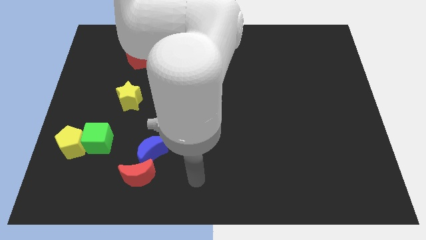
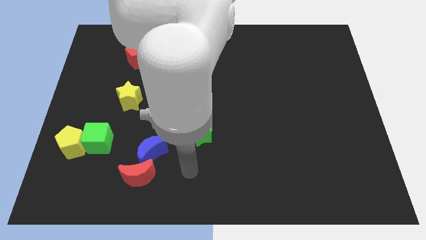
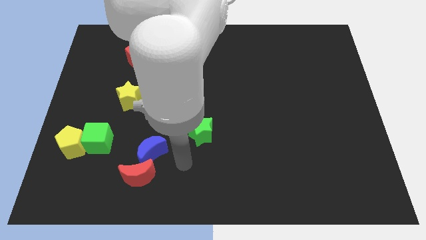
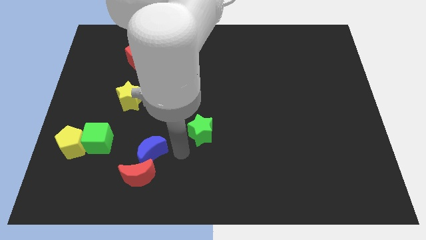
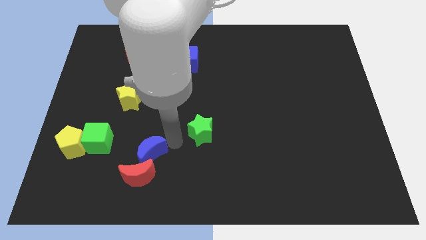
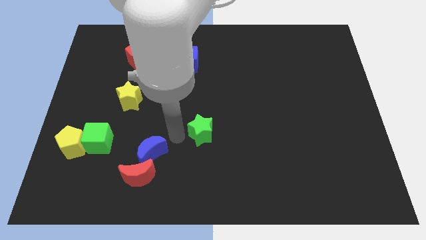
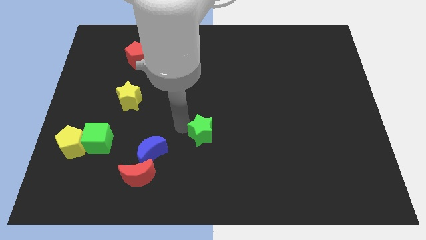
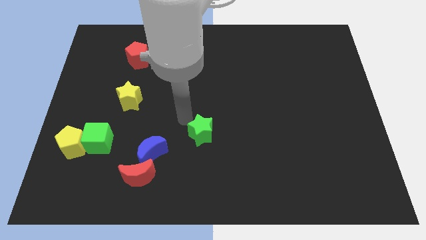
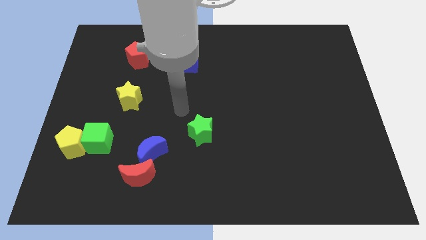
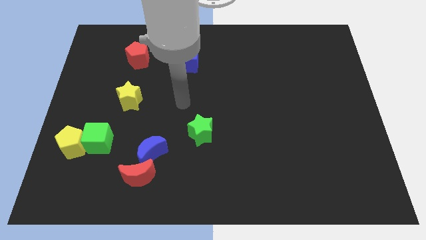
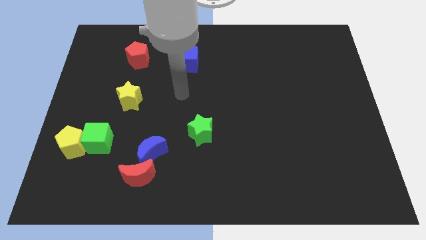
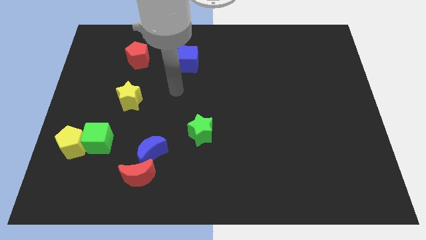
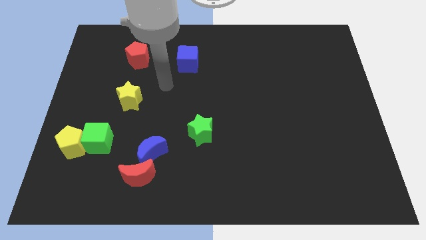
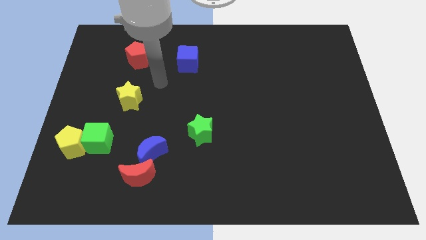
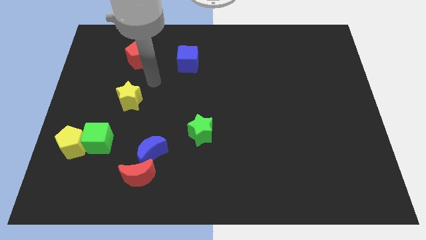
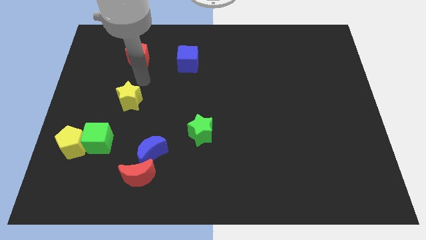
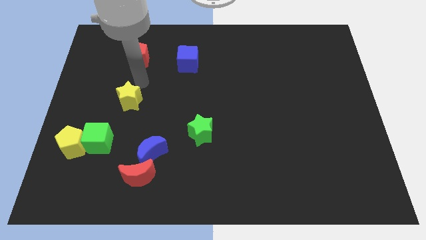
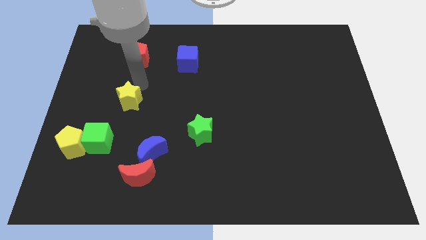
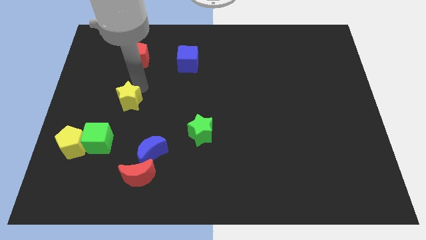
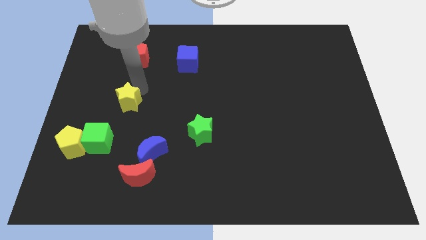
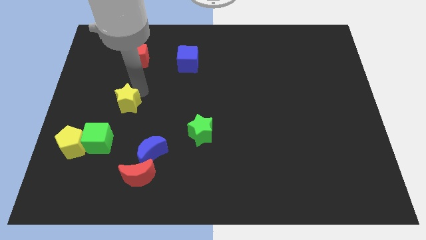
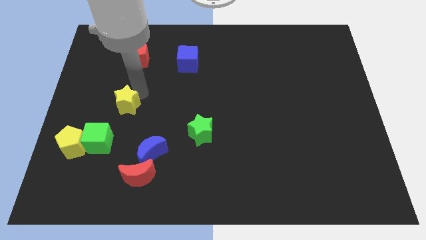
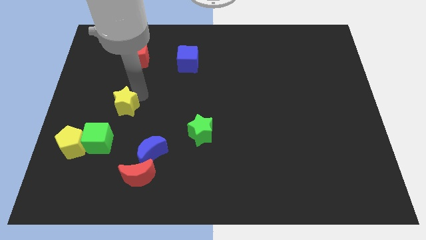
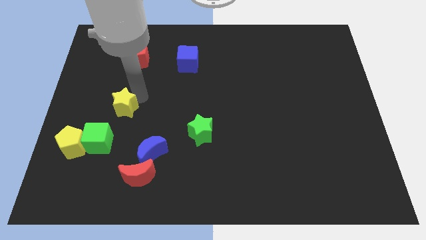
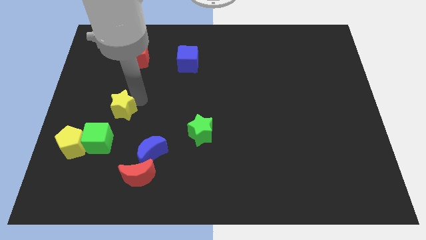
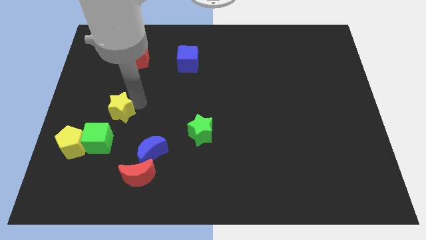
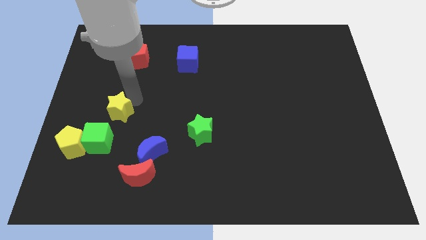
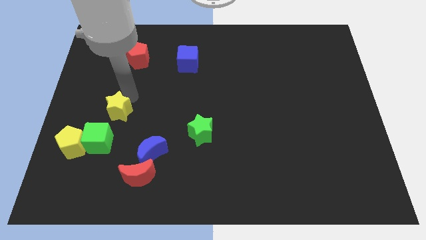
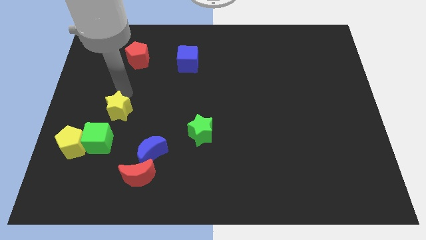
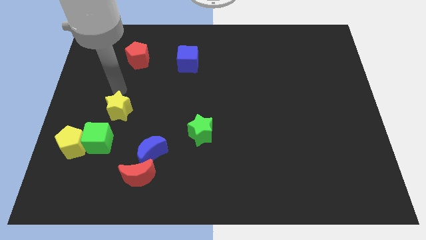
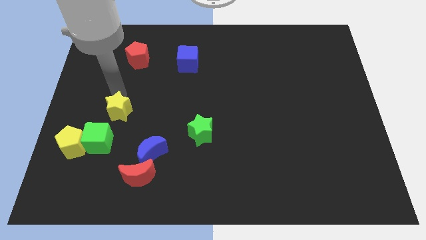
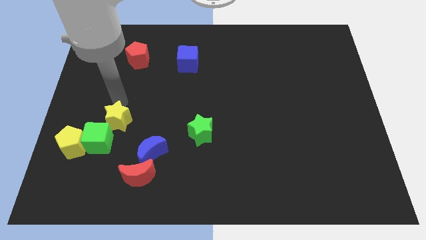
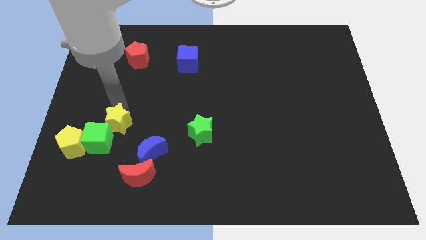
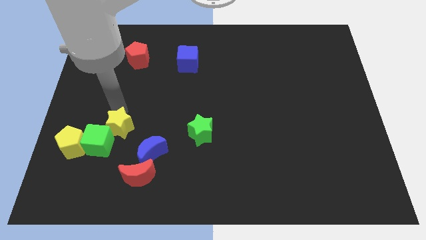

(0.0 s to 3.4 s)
move the yellow star a little downwards

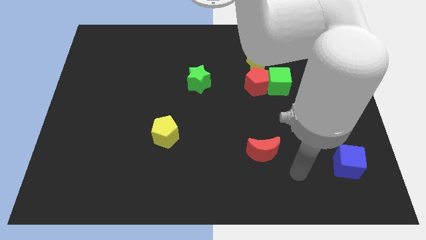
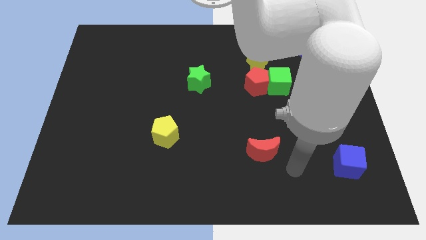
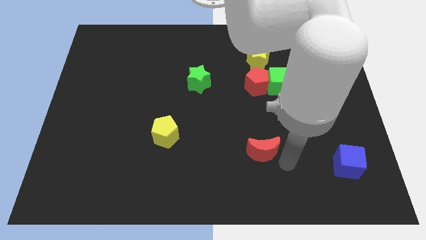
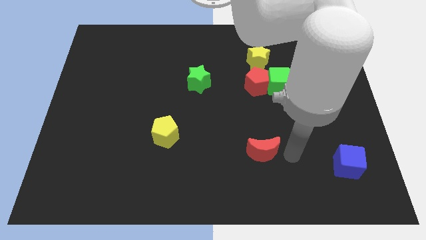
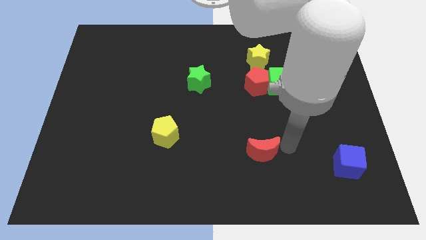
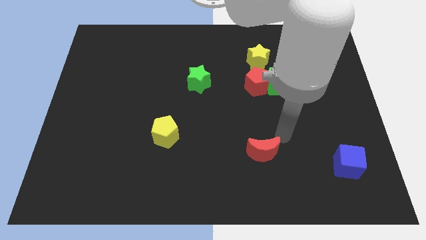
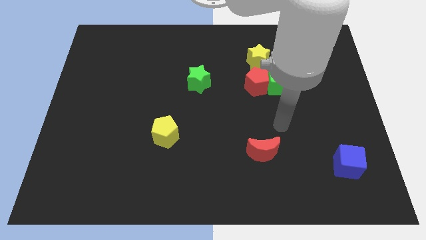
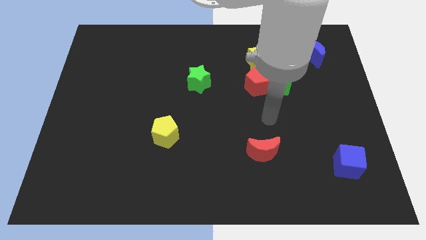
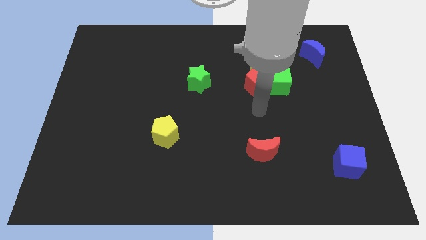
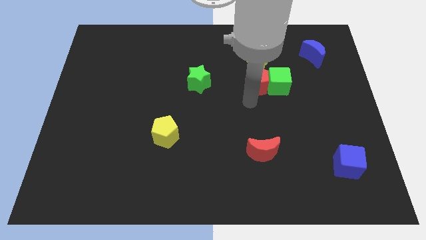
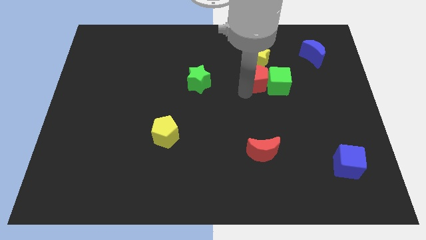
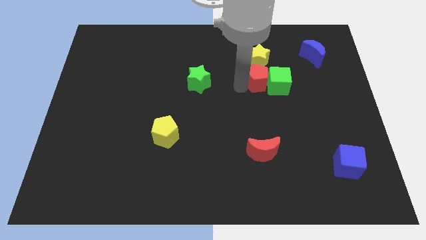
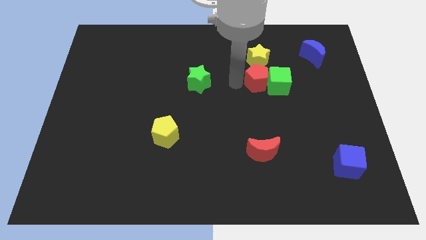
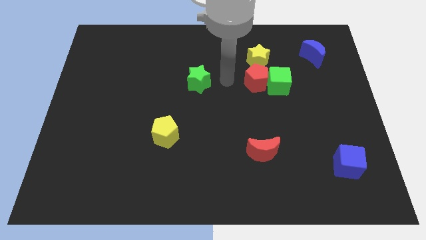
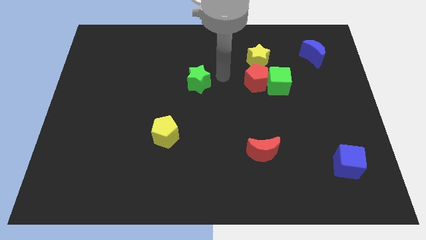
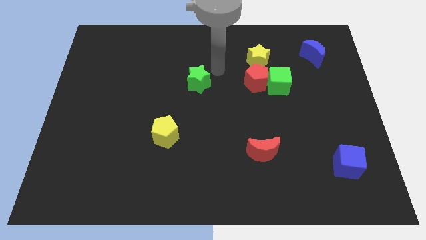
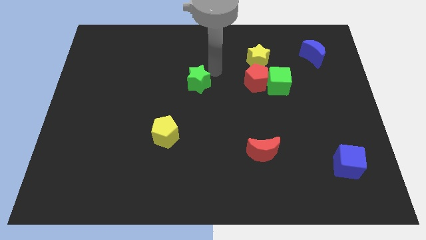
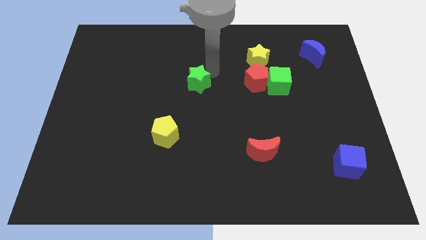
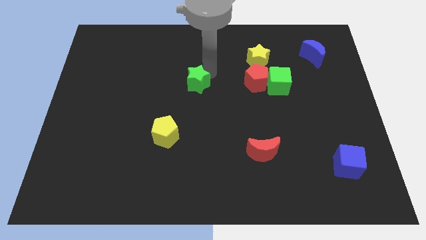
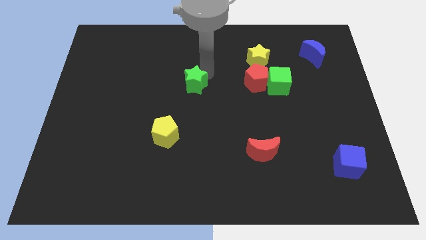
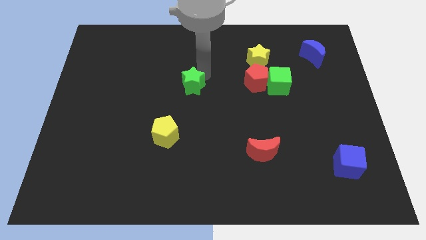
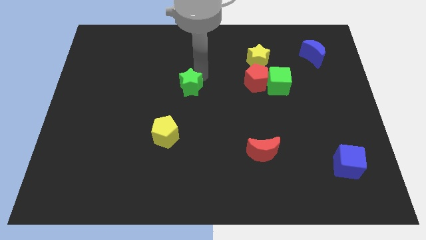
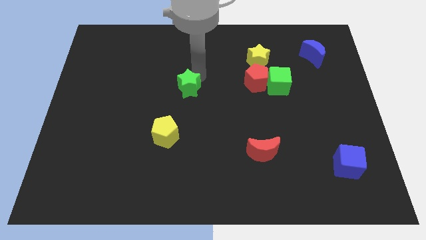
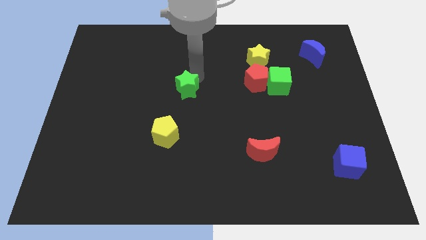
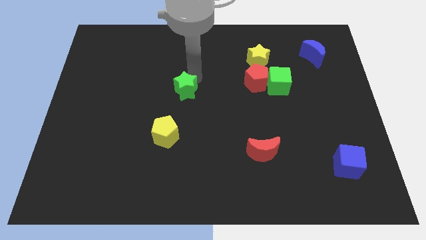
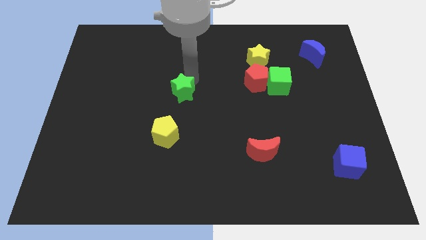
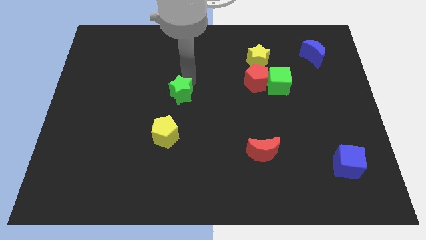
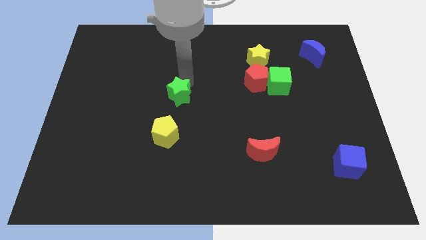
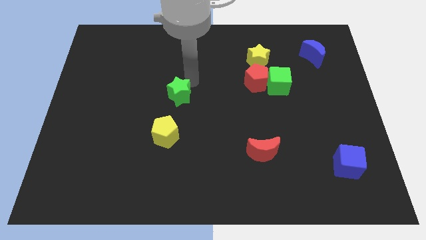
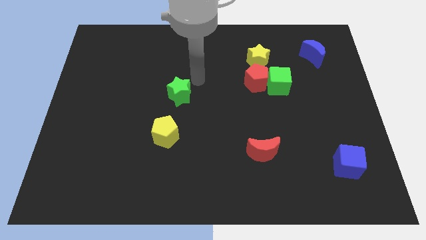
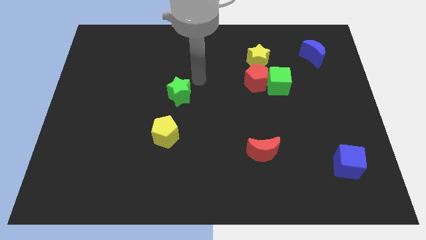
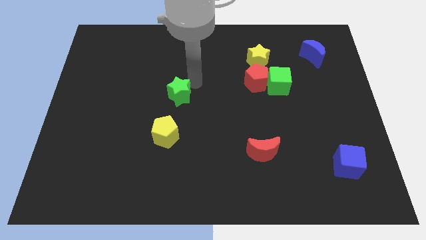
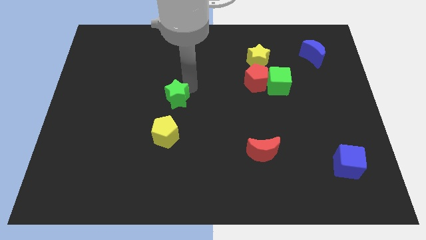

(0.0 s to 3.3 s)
slide the green star diagonally downwards and left a bit

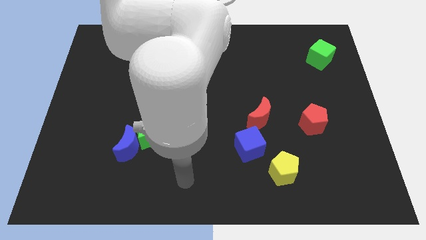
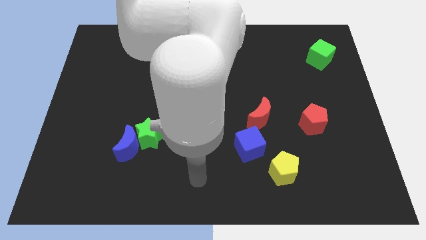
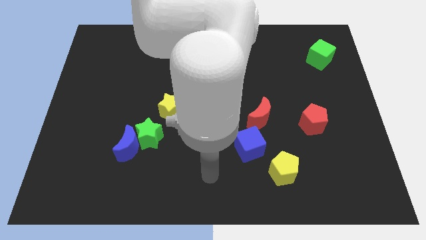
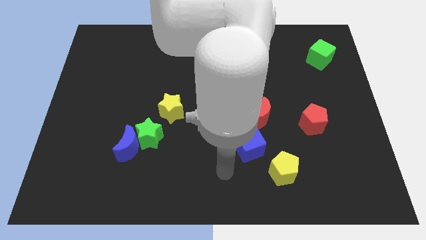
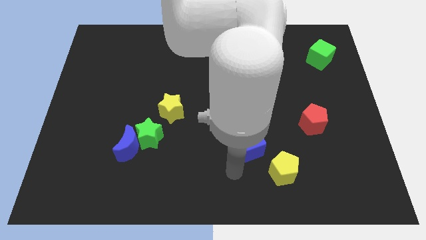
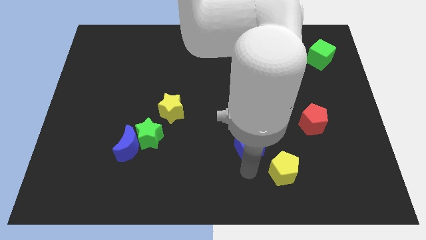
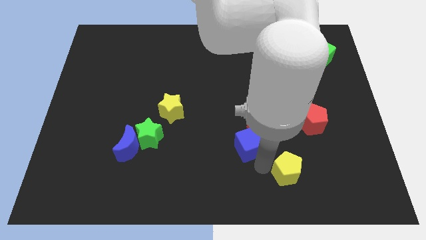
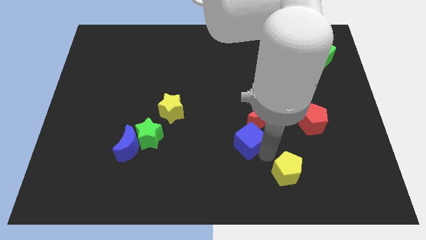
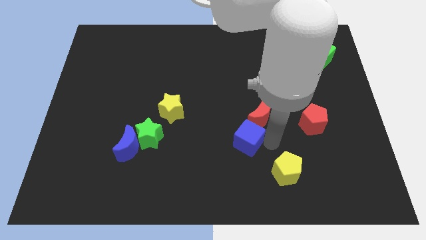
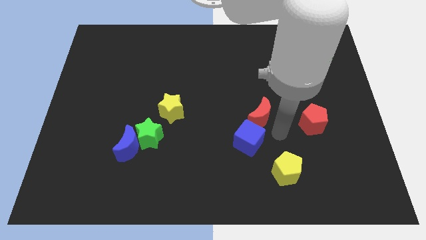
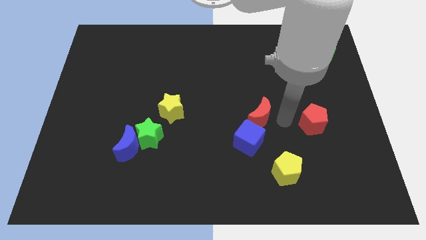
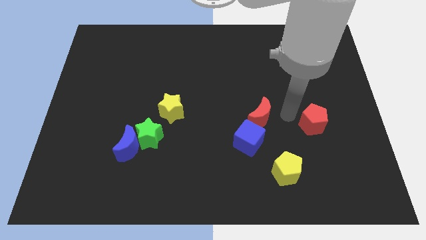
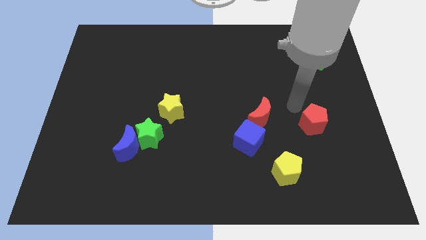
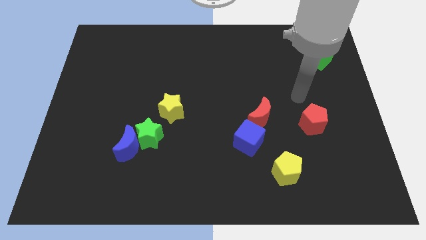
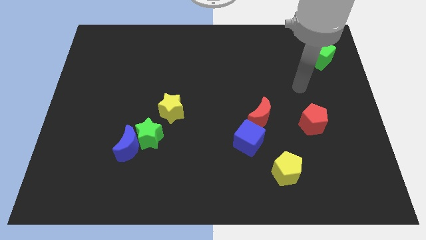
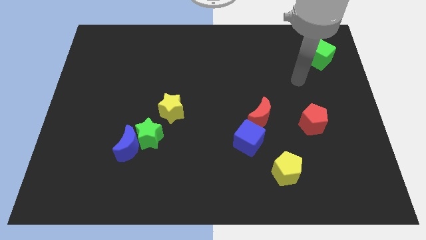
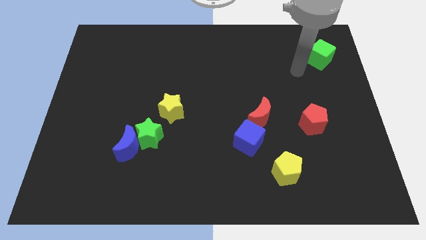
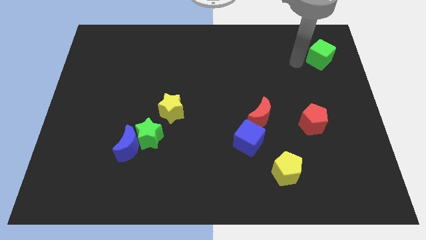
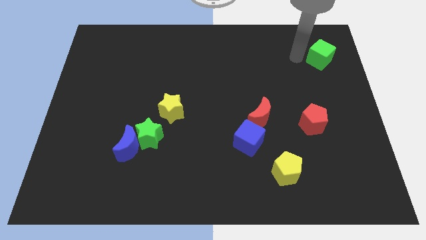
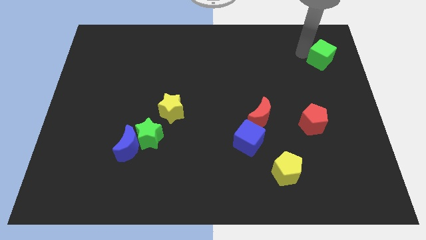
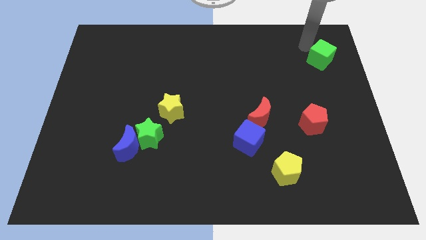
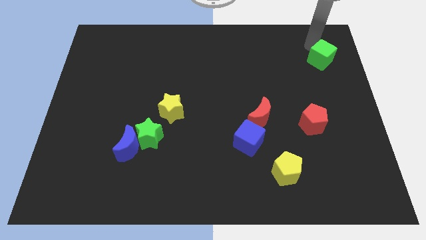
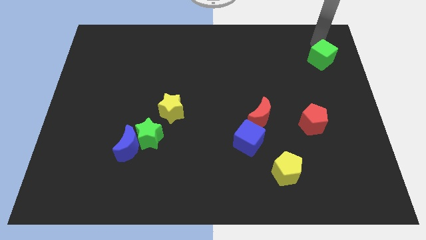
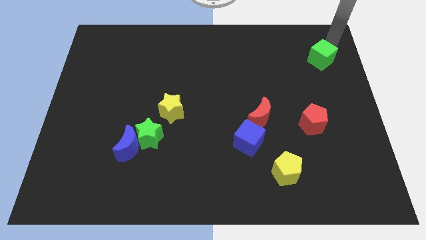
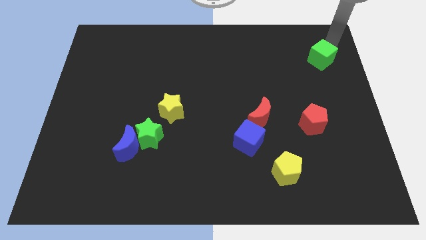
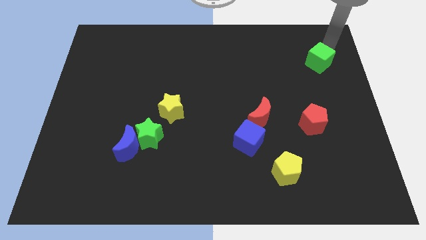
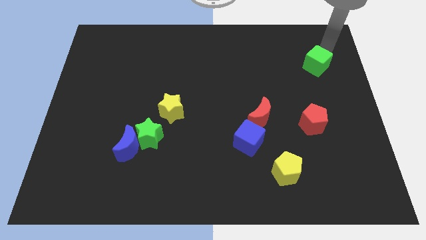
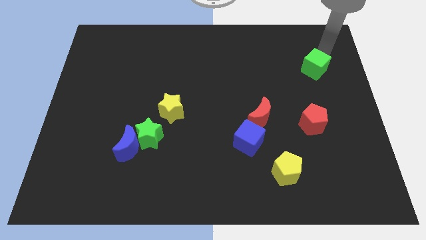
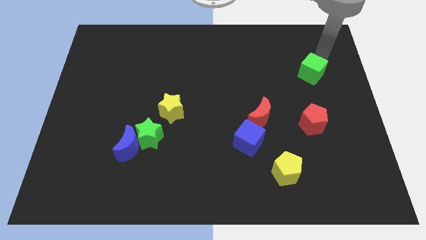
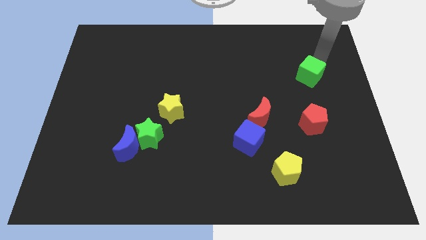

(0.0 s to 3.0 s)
slightly push the green cube downwards and then to the left
